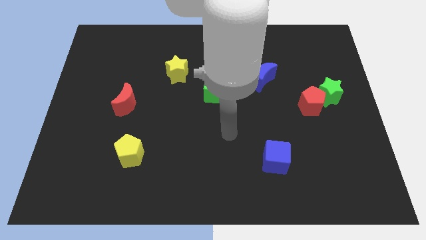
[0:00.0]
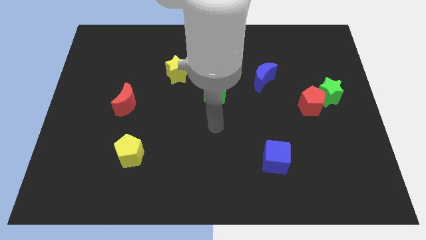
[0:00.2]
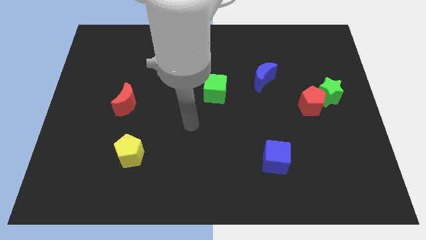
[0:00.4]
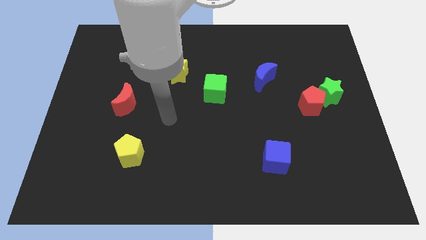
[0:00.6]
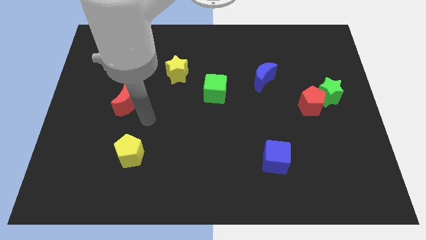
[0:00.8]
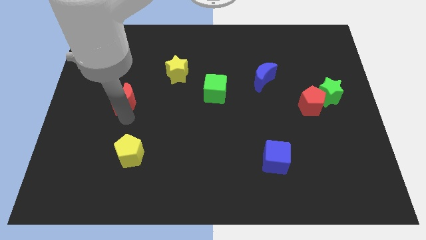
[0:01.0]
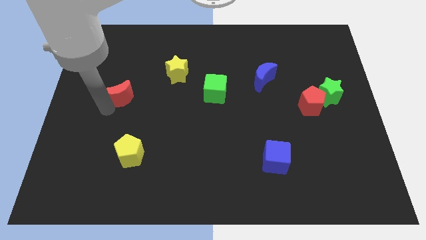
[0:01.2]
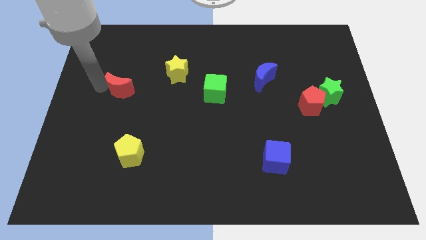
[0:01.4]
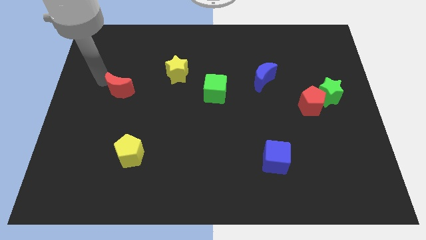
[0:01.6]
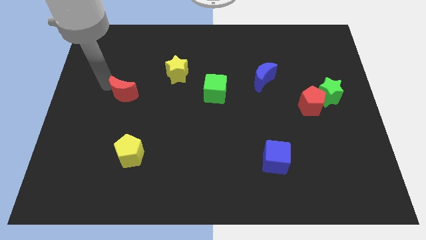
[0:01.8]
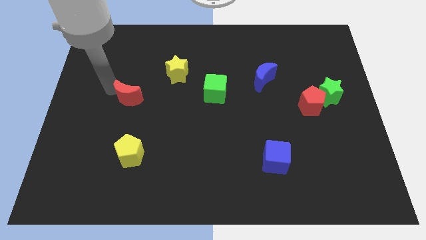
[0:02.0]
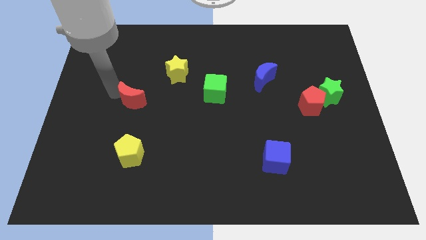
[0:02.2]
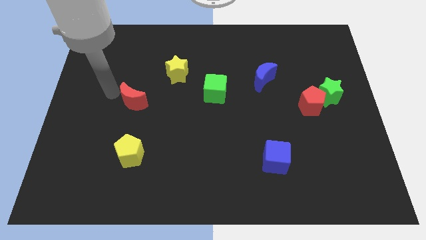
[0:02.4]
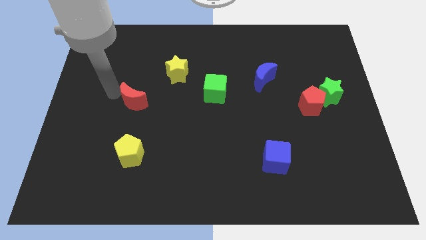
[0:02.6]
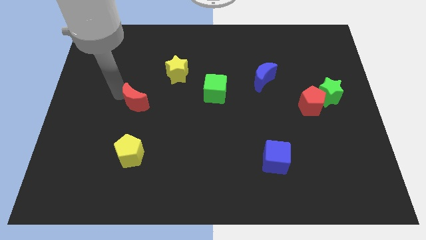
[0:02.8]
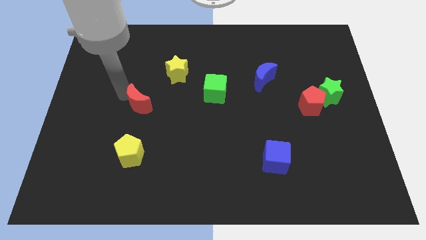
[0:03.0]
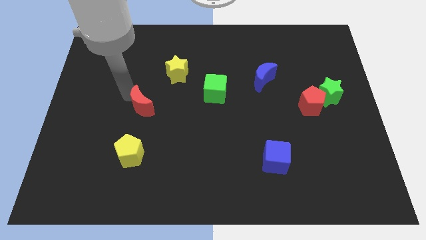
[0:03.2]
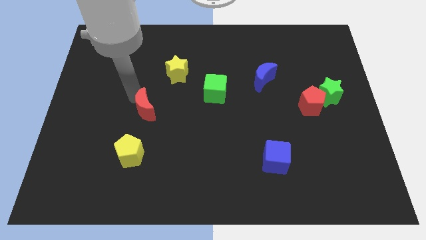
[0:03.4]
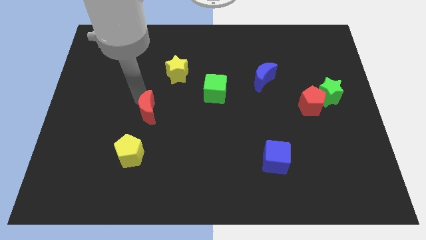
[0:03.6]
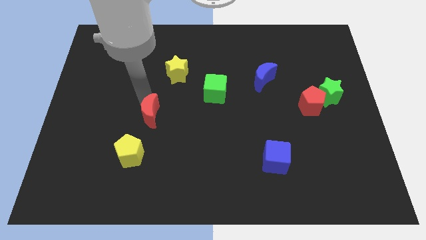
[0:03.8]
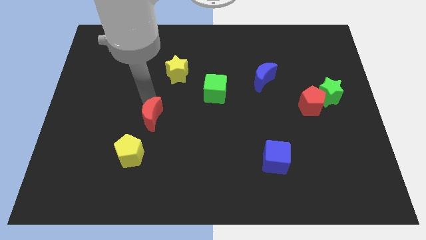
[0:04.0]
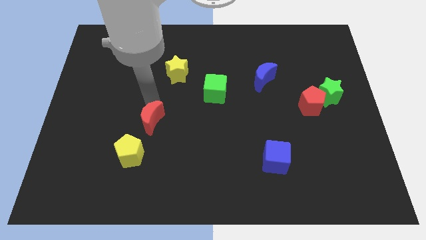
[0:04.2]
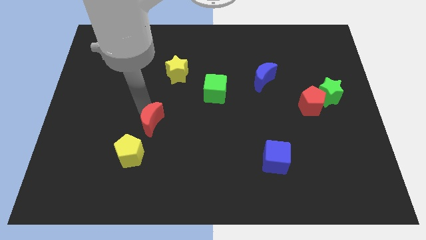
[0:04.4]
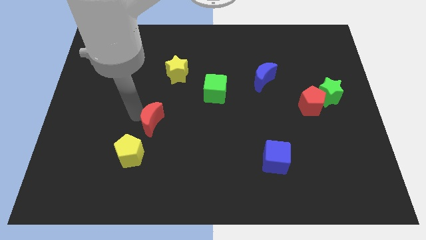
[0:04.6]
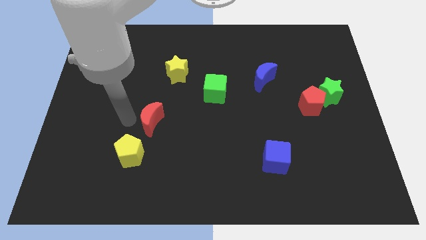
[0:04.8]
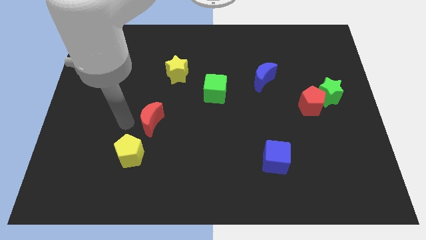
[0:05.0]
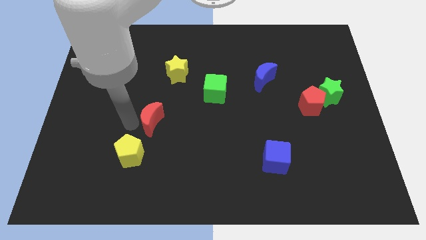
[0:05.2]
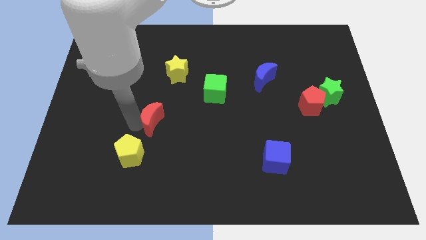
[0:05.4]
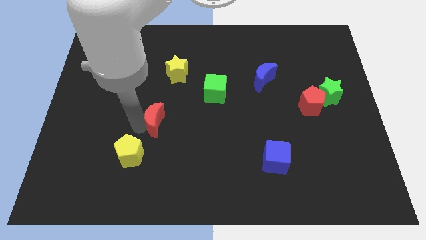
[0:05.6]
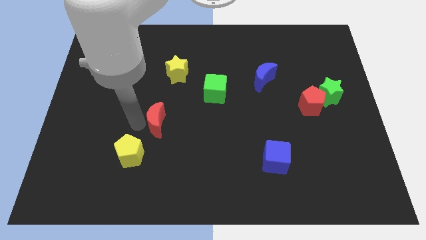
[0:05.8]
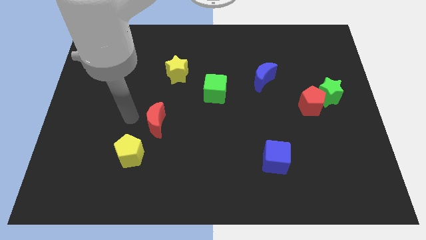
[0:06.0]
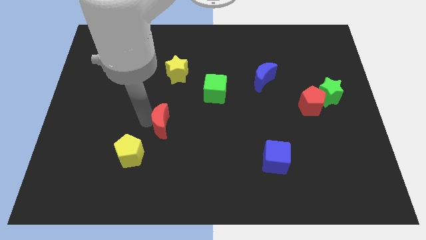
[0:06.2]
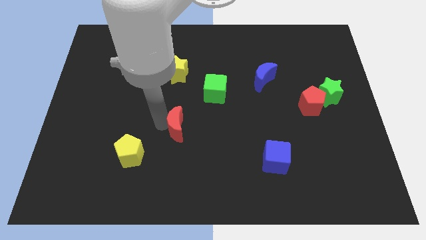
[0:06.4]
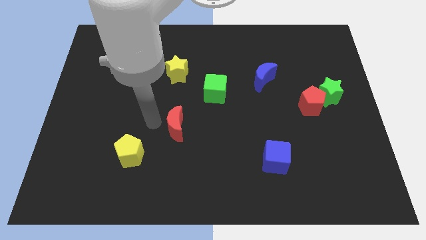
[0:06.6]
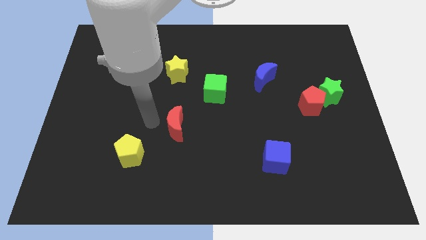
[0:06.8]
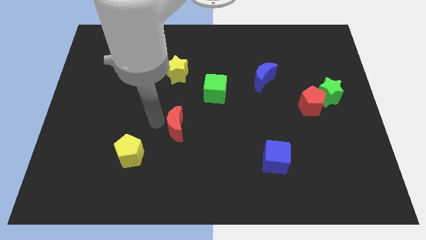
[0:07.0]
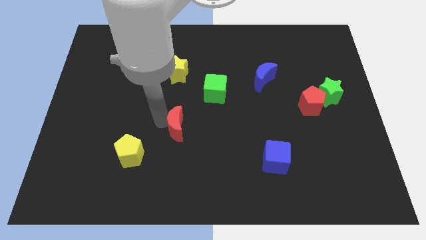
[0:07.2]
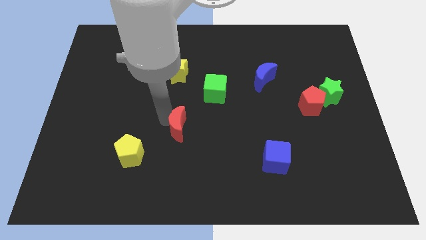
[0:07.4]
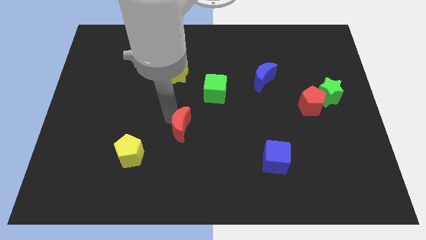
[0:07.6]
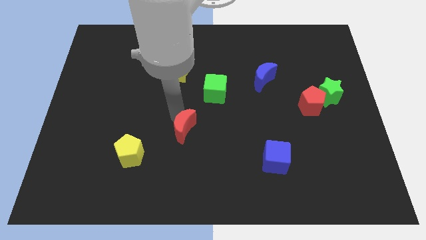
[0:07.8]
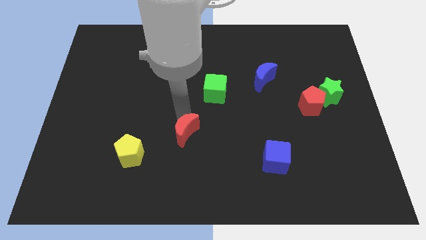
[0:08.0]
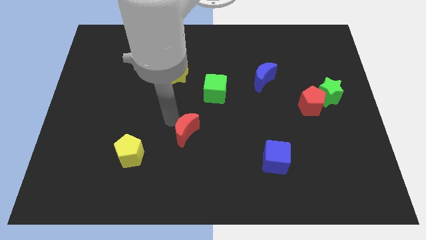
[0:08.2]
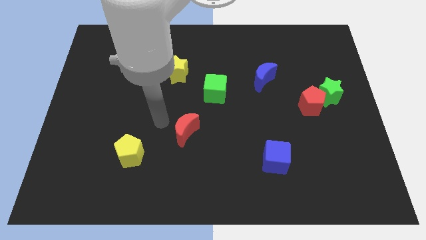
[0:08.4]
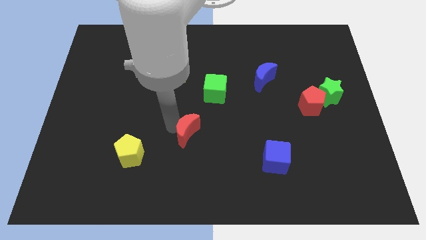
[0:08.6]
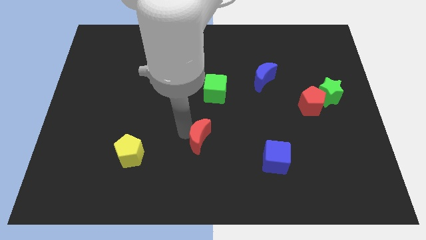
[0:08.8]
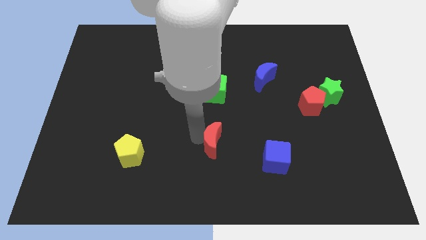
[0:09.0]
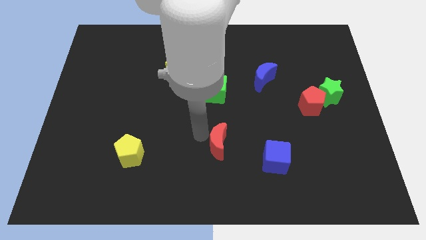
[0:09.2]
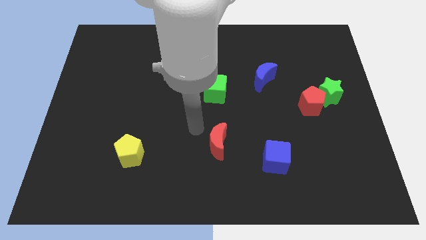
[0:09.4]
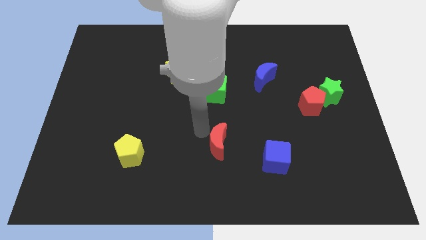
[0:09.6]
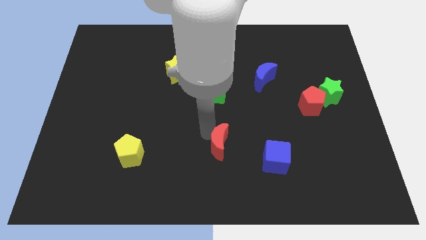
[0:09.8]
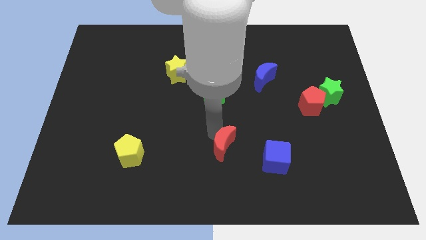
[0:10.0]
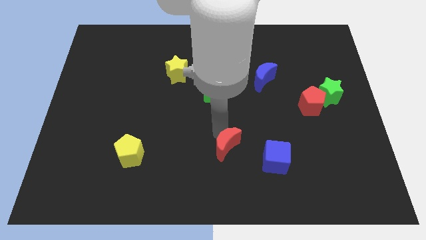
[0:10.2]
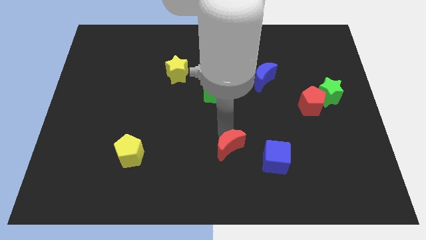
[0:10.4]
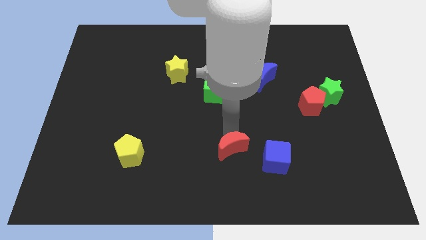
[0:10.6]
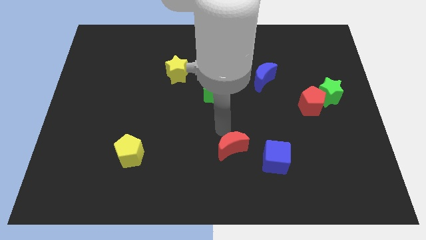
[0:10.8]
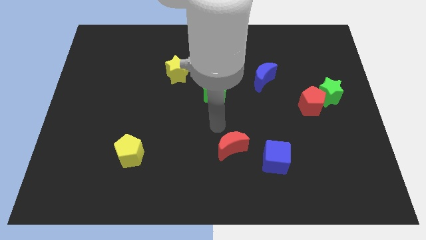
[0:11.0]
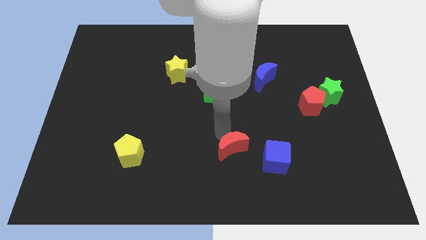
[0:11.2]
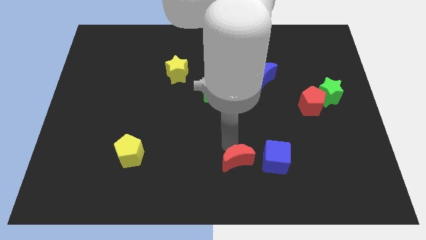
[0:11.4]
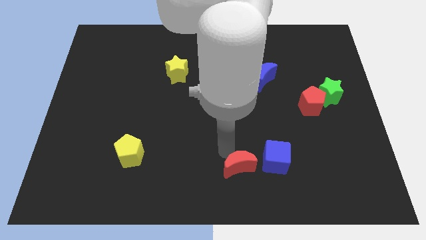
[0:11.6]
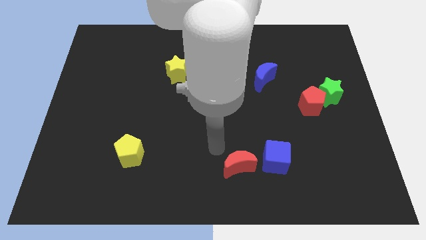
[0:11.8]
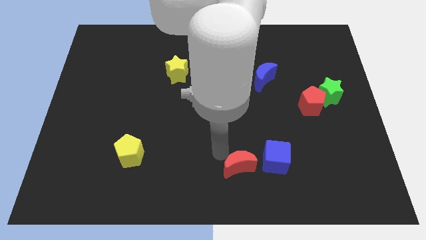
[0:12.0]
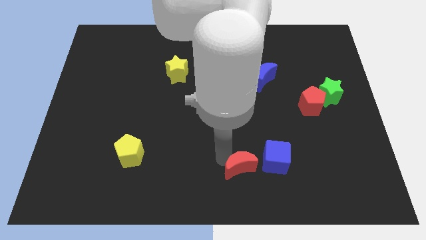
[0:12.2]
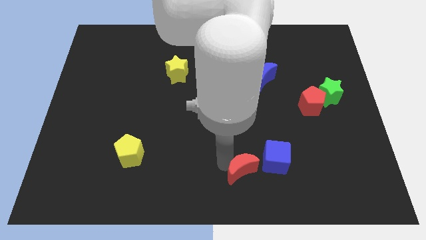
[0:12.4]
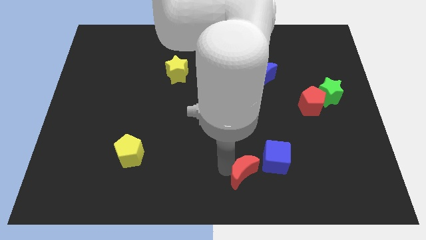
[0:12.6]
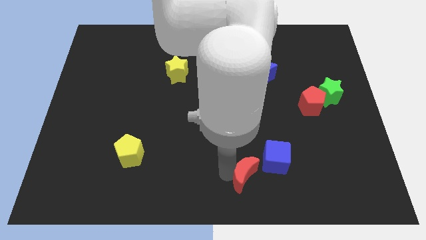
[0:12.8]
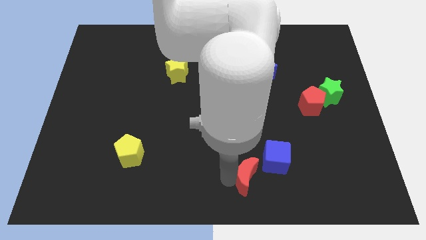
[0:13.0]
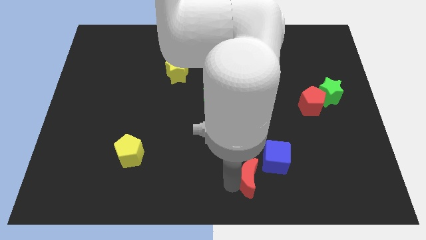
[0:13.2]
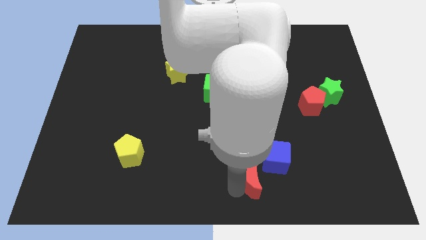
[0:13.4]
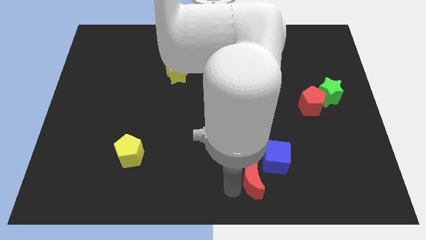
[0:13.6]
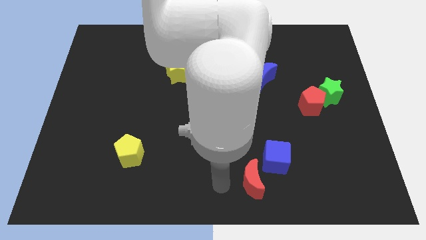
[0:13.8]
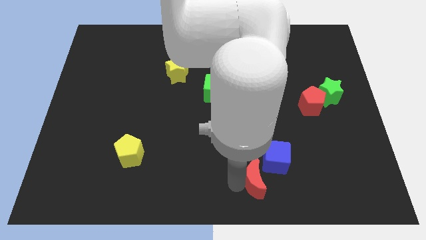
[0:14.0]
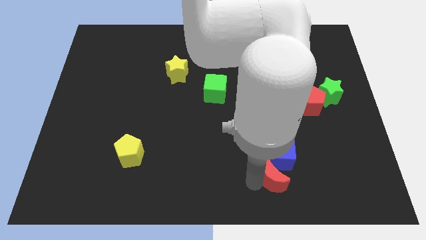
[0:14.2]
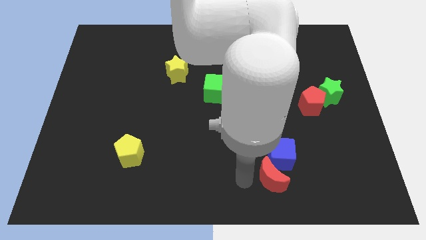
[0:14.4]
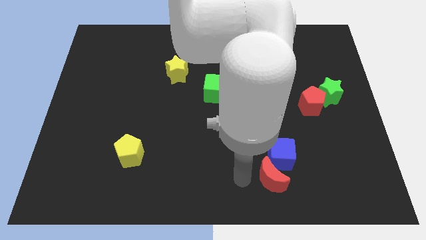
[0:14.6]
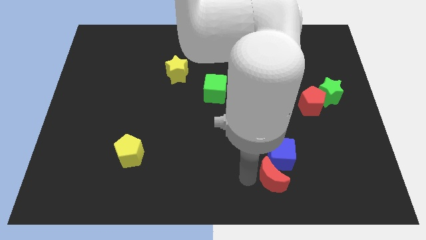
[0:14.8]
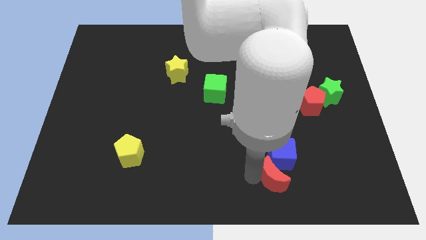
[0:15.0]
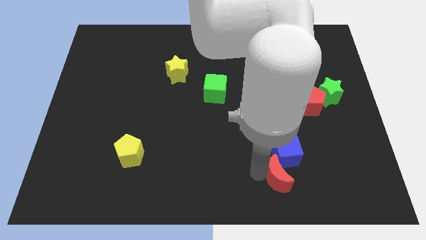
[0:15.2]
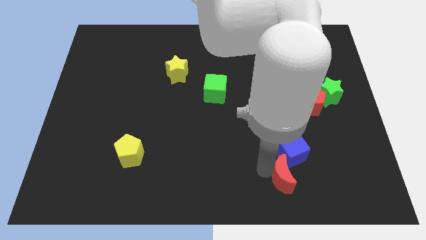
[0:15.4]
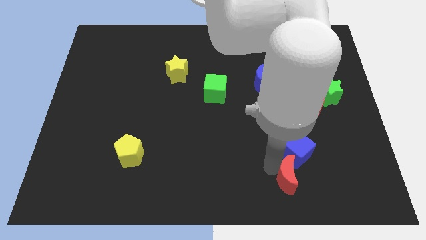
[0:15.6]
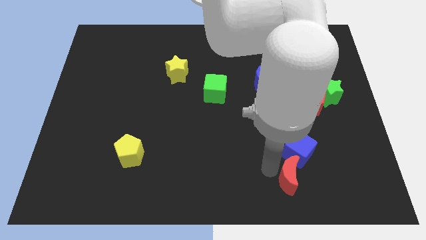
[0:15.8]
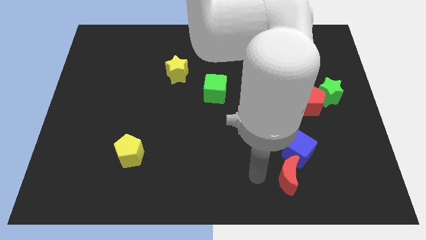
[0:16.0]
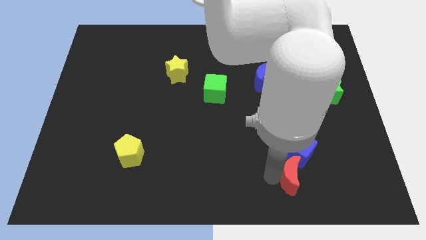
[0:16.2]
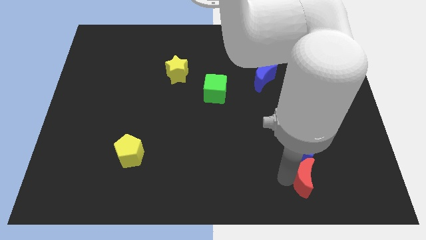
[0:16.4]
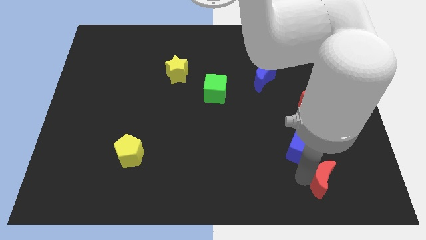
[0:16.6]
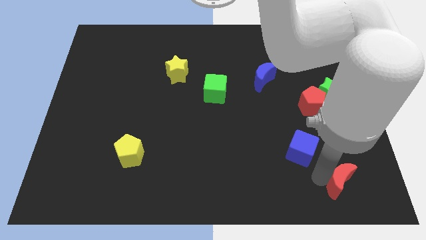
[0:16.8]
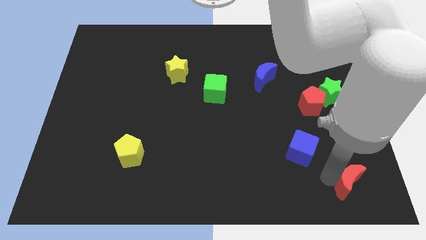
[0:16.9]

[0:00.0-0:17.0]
put the red moon to the lower right corner
